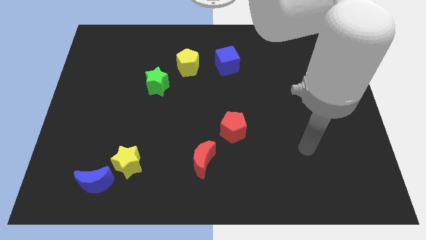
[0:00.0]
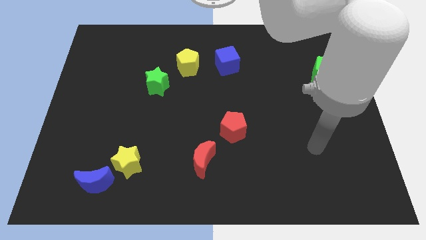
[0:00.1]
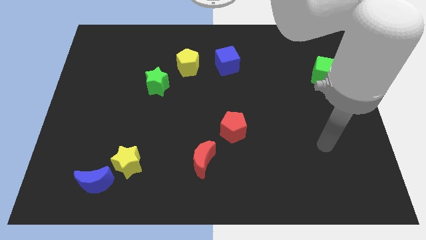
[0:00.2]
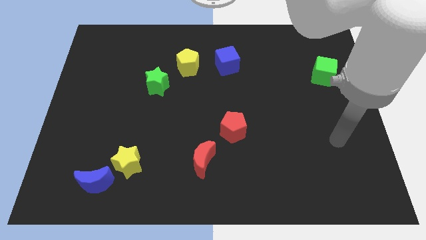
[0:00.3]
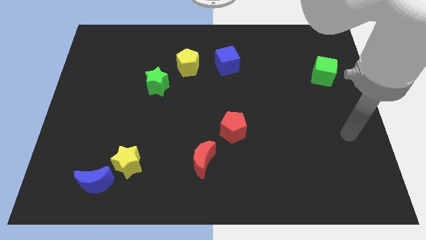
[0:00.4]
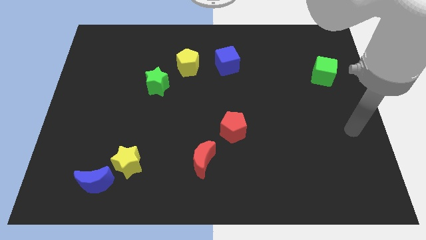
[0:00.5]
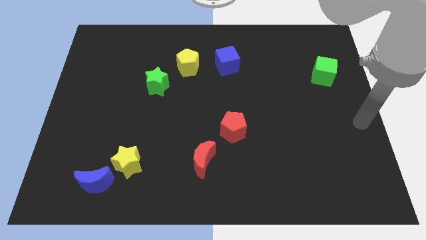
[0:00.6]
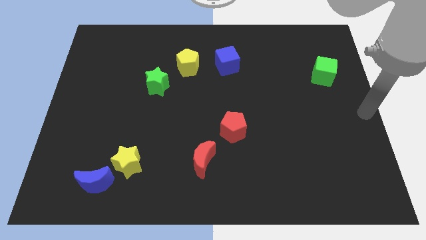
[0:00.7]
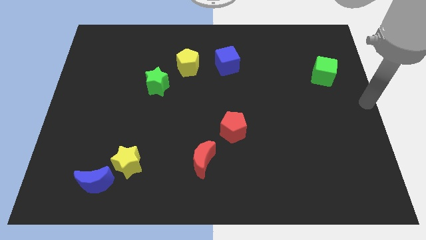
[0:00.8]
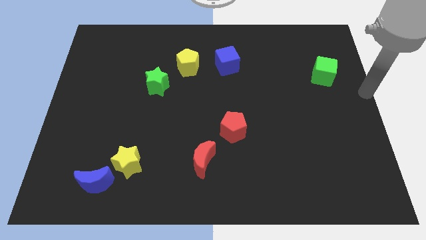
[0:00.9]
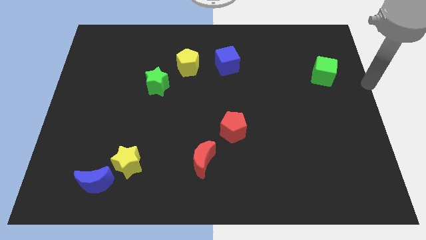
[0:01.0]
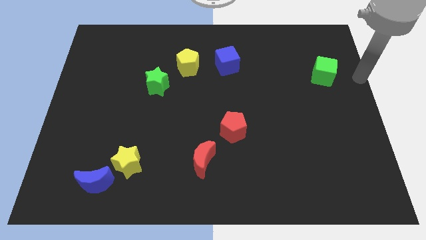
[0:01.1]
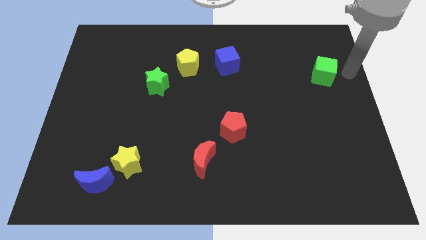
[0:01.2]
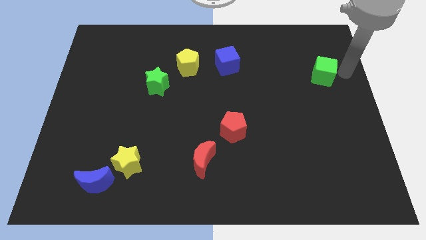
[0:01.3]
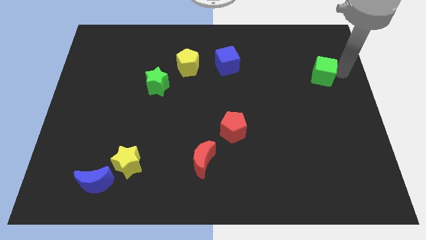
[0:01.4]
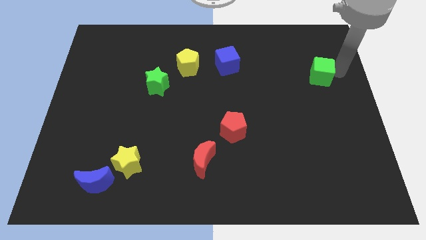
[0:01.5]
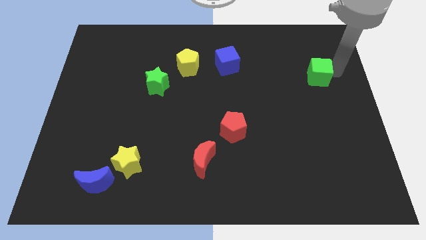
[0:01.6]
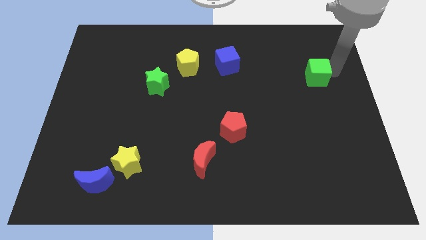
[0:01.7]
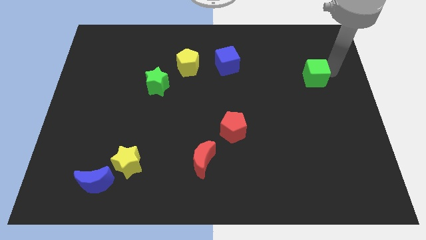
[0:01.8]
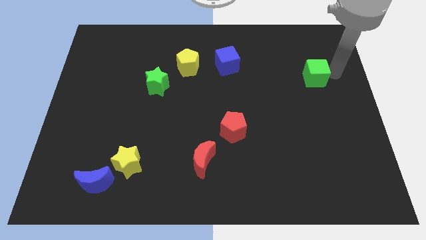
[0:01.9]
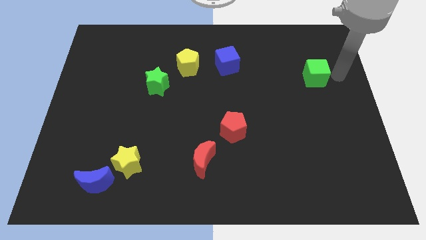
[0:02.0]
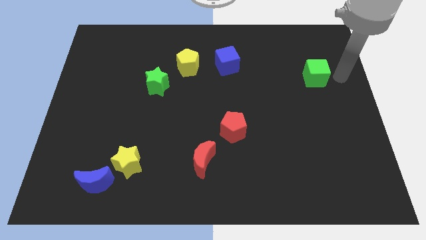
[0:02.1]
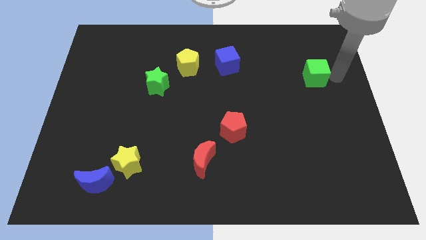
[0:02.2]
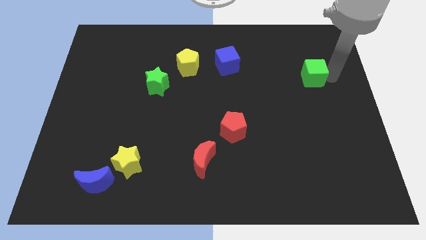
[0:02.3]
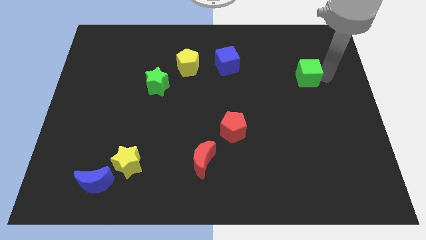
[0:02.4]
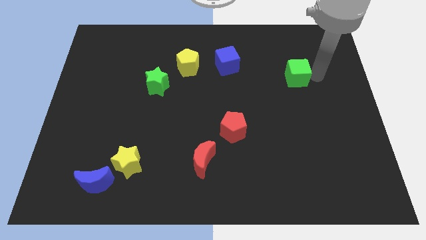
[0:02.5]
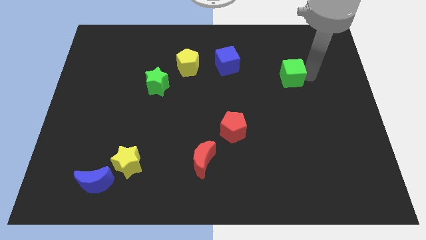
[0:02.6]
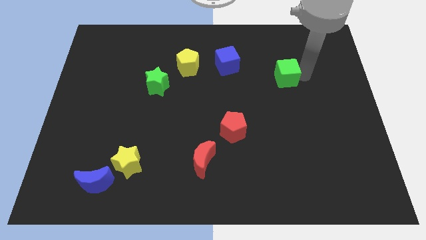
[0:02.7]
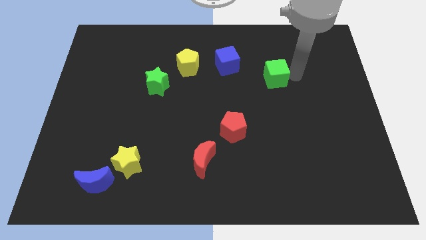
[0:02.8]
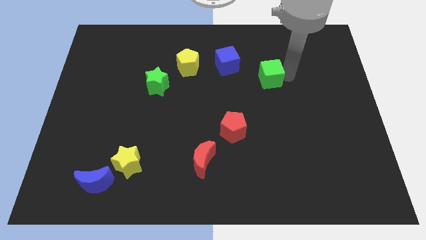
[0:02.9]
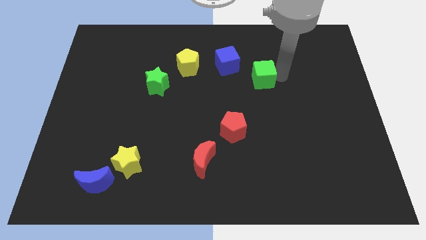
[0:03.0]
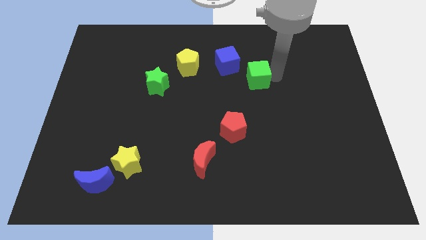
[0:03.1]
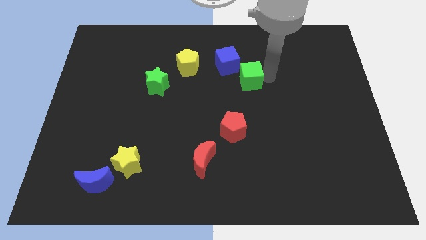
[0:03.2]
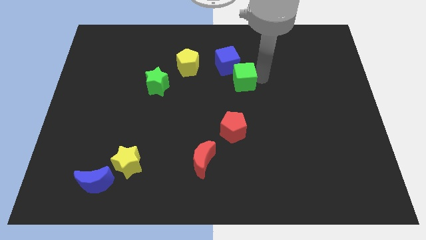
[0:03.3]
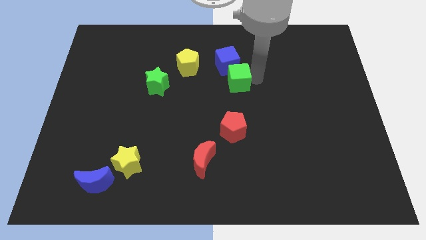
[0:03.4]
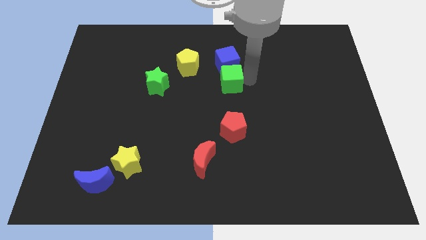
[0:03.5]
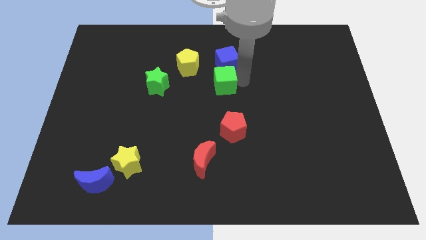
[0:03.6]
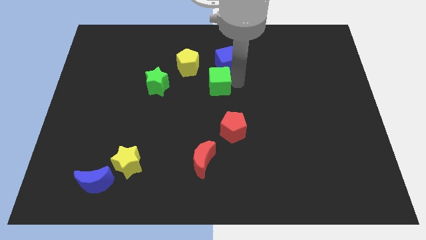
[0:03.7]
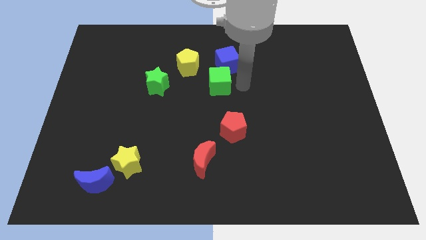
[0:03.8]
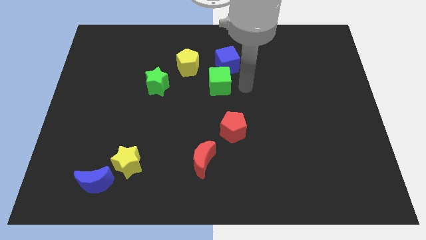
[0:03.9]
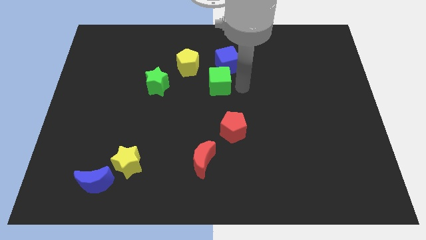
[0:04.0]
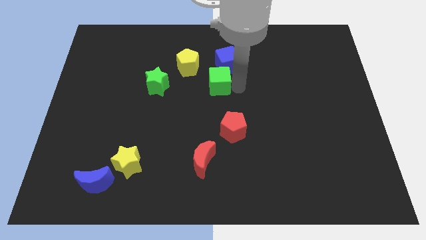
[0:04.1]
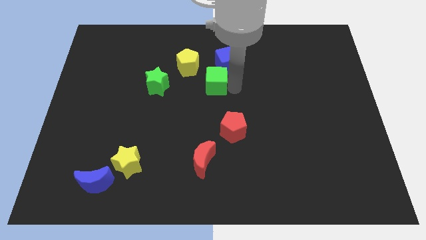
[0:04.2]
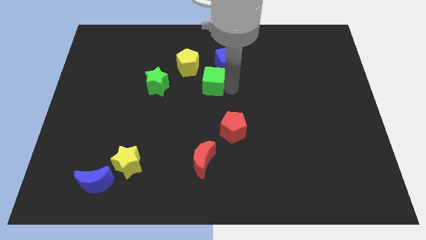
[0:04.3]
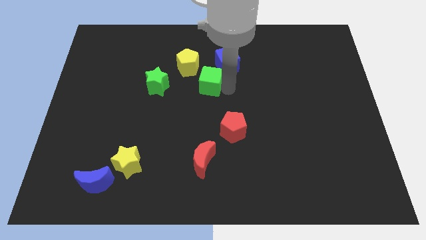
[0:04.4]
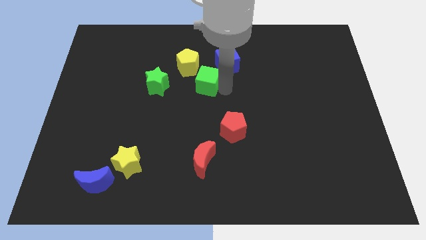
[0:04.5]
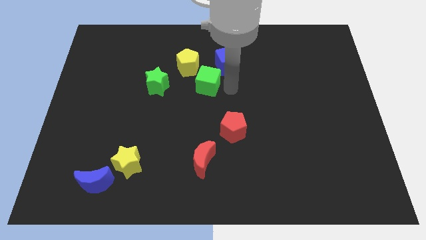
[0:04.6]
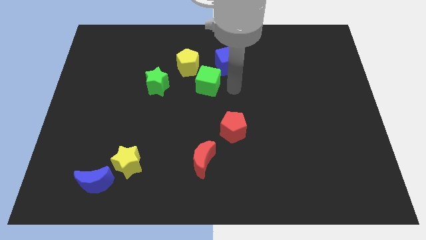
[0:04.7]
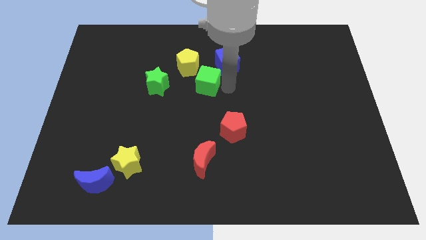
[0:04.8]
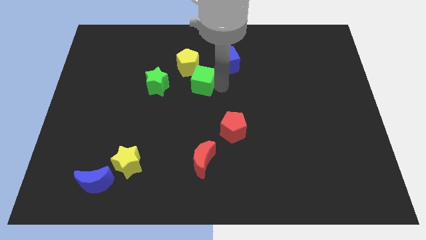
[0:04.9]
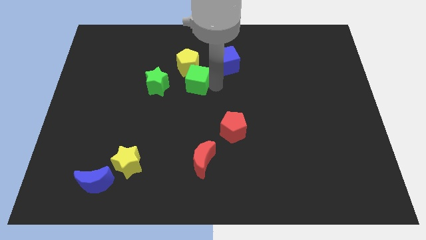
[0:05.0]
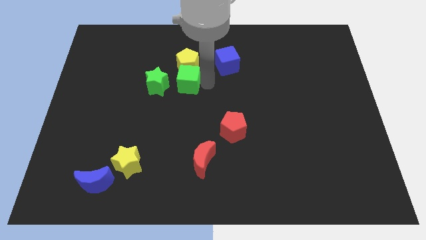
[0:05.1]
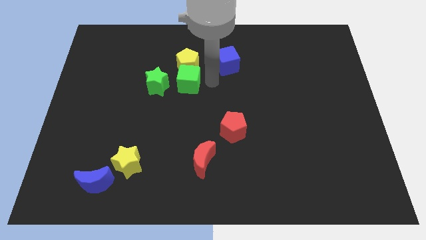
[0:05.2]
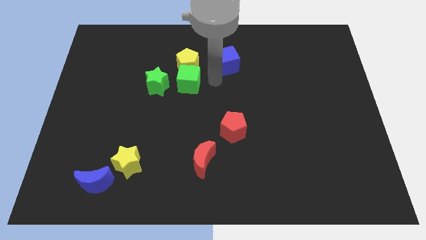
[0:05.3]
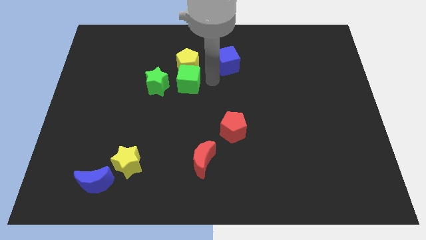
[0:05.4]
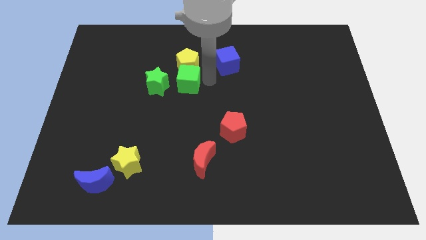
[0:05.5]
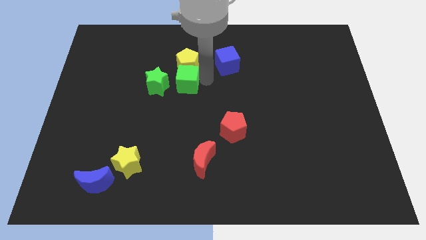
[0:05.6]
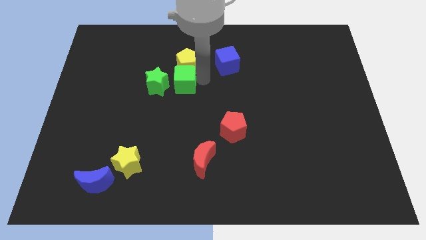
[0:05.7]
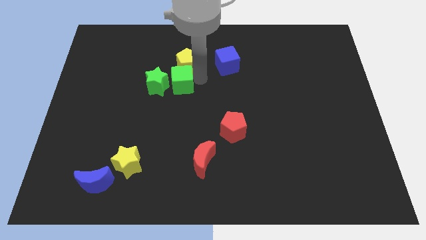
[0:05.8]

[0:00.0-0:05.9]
put the green cube next to the green star
